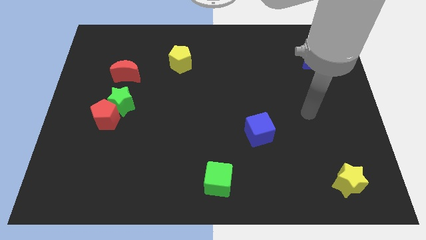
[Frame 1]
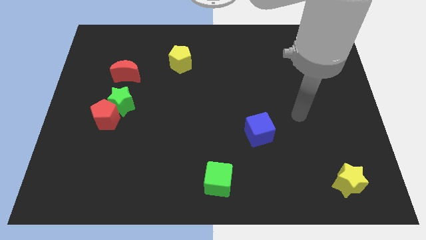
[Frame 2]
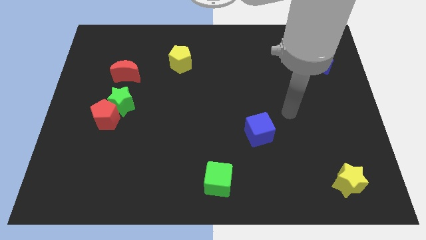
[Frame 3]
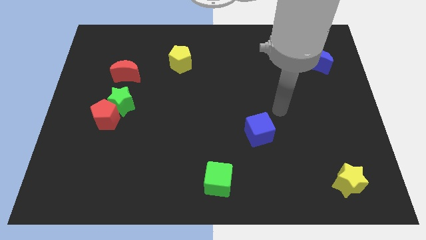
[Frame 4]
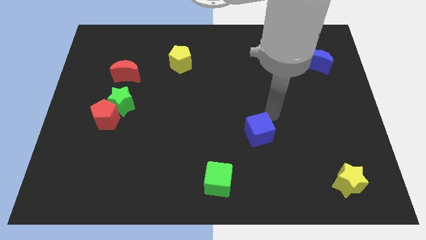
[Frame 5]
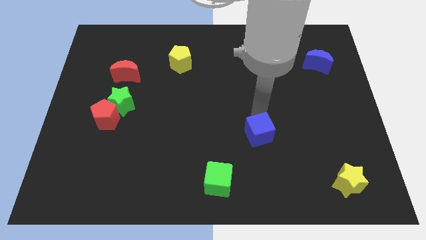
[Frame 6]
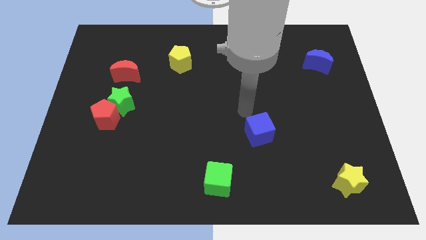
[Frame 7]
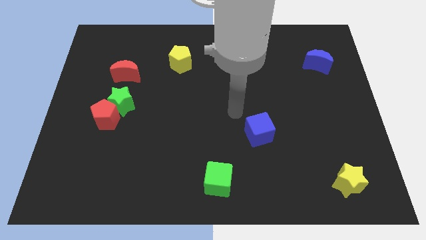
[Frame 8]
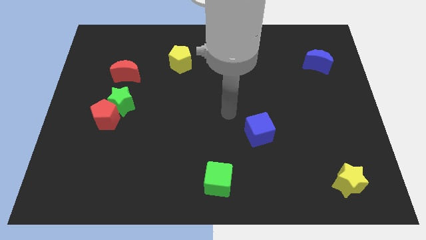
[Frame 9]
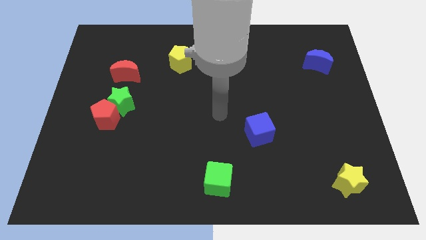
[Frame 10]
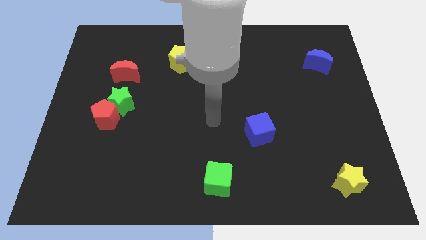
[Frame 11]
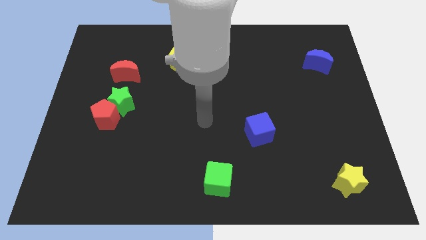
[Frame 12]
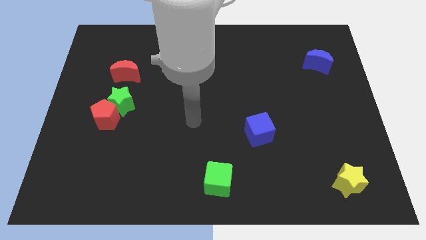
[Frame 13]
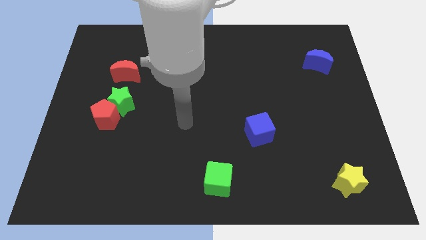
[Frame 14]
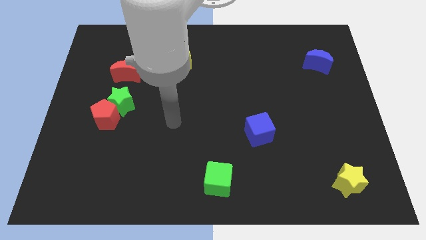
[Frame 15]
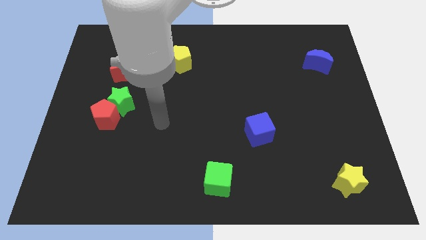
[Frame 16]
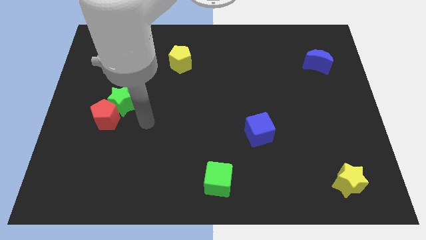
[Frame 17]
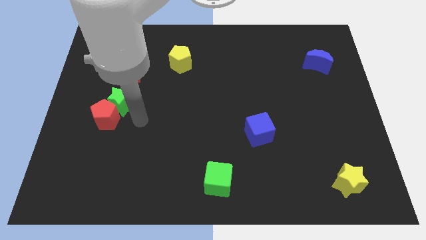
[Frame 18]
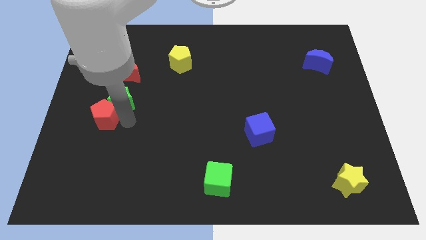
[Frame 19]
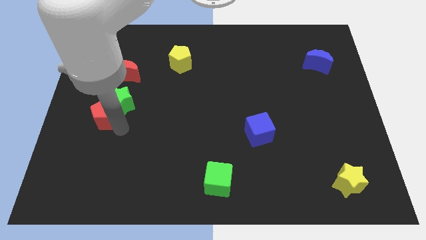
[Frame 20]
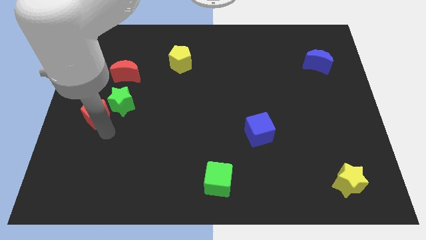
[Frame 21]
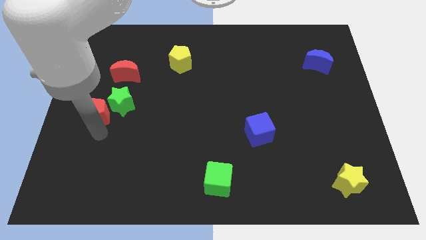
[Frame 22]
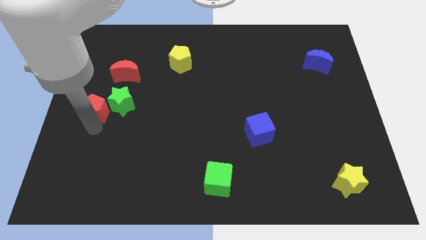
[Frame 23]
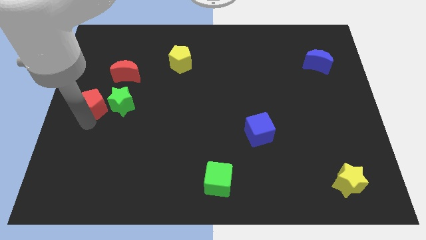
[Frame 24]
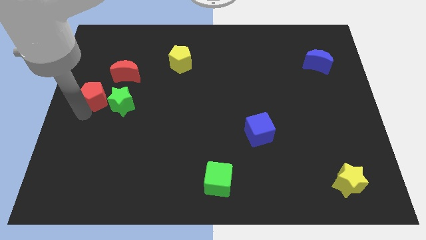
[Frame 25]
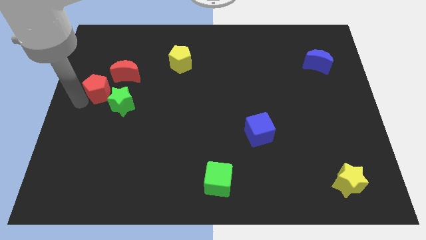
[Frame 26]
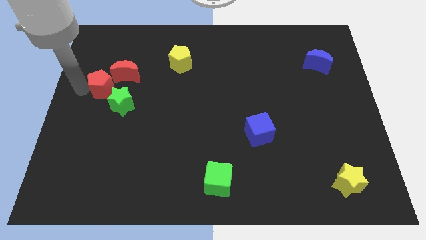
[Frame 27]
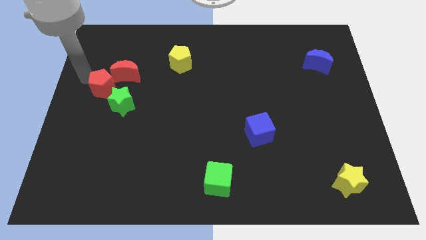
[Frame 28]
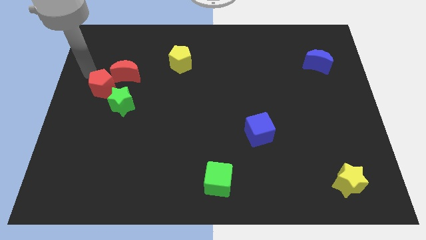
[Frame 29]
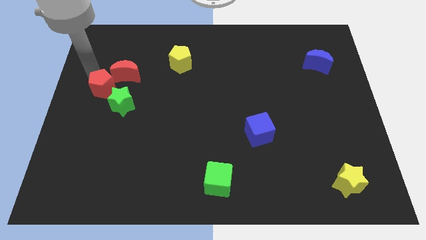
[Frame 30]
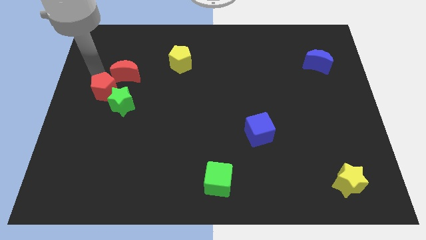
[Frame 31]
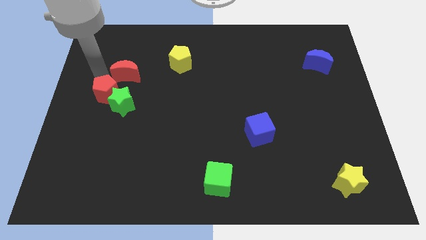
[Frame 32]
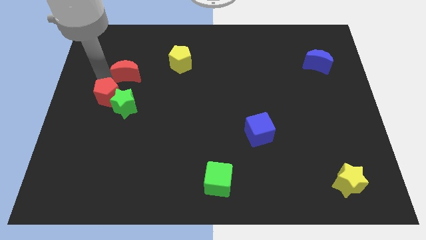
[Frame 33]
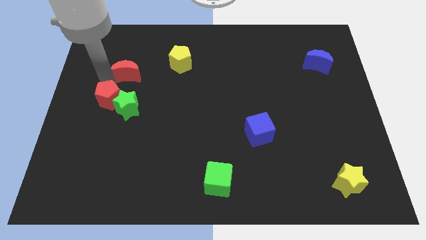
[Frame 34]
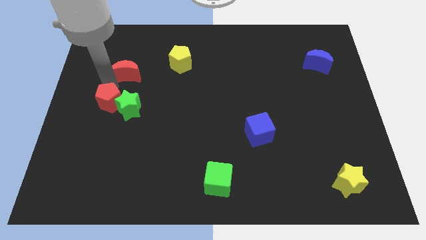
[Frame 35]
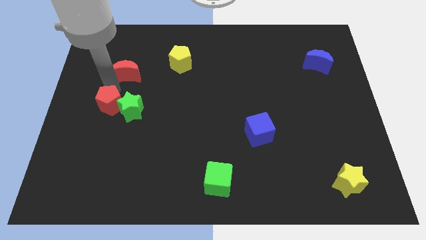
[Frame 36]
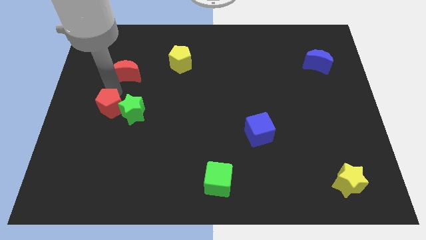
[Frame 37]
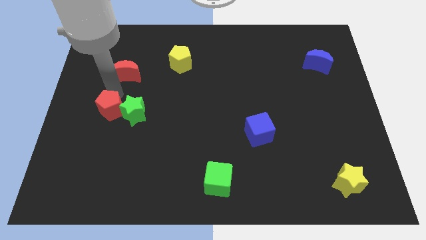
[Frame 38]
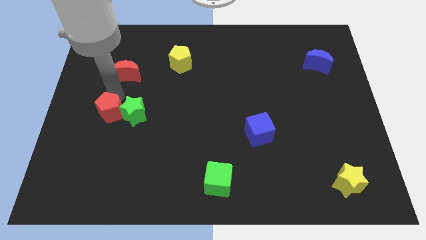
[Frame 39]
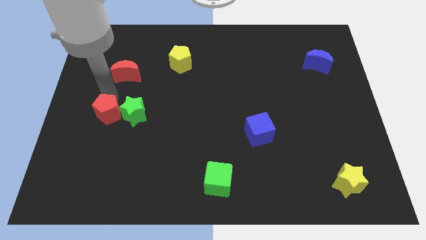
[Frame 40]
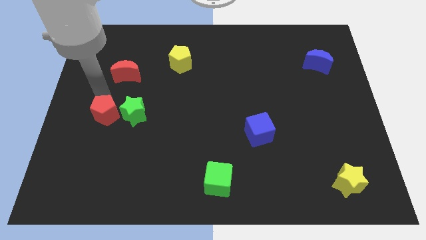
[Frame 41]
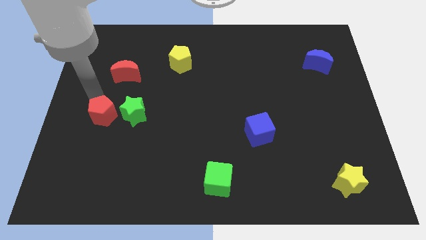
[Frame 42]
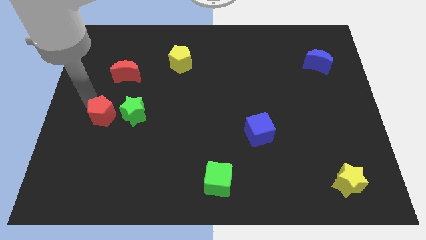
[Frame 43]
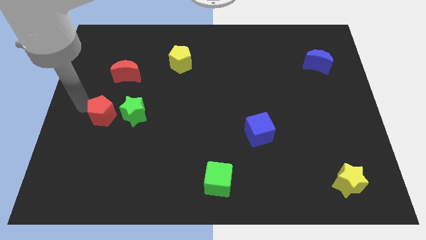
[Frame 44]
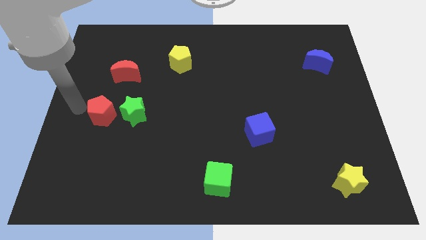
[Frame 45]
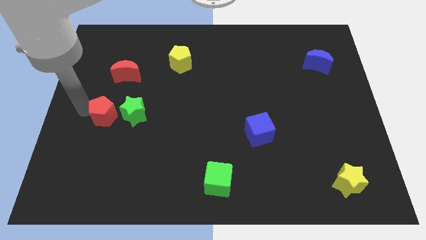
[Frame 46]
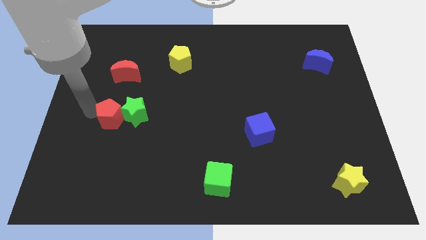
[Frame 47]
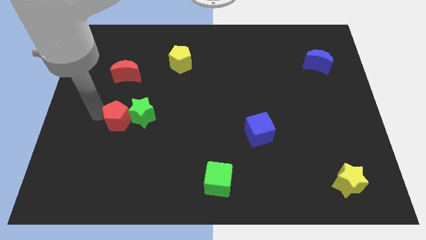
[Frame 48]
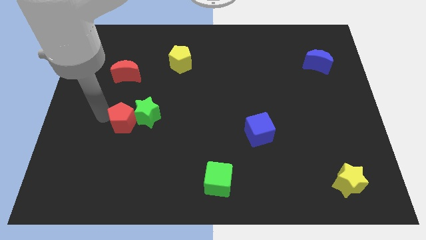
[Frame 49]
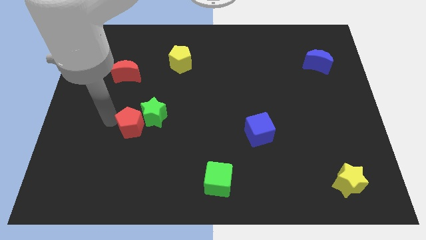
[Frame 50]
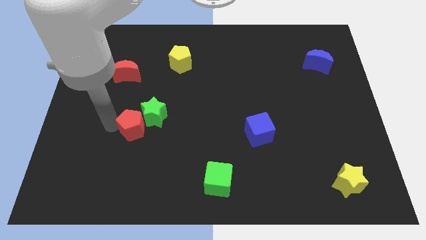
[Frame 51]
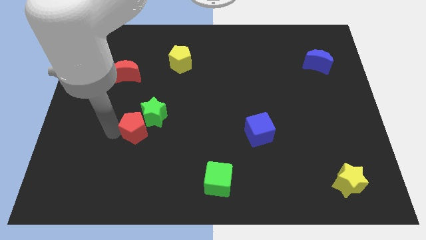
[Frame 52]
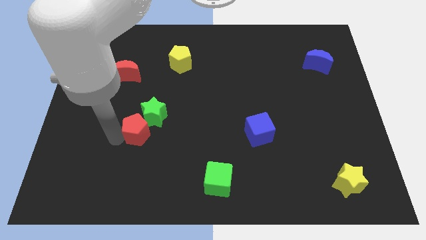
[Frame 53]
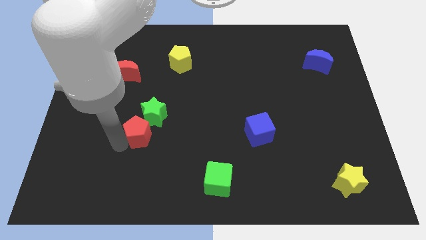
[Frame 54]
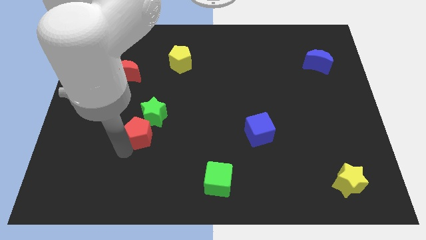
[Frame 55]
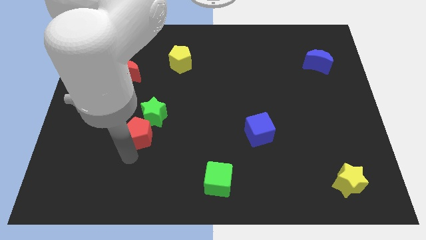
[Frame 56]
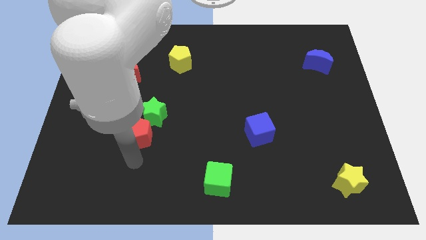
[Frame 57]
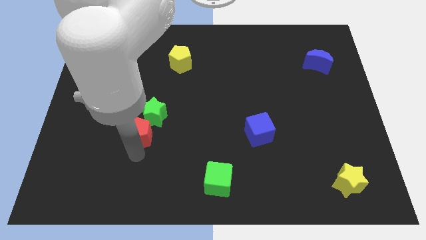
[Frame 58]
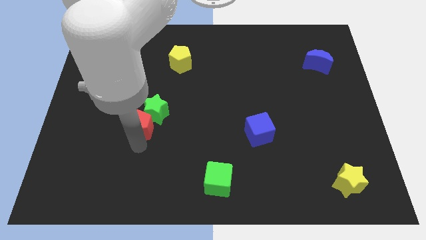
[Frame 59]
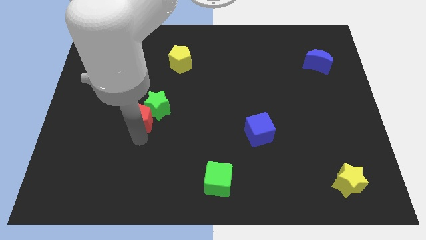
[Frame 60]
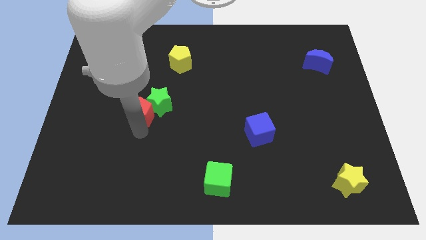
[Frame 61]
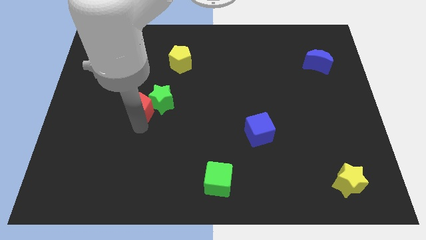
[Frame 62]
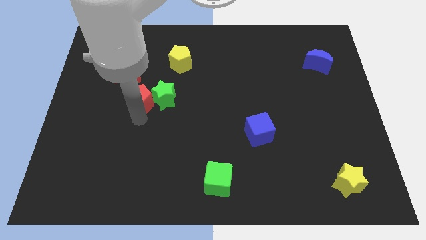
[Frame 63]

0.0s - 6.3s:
push the red pentagon somewhat up and then to the right

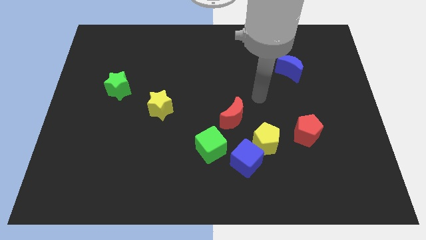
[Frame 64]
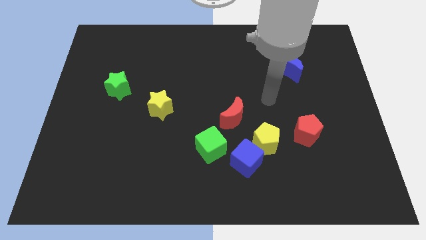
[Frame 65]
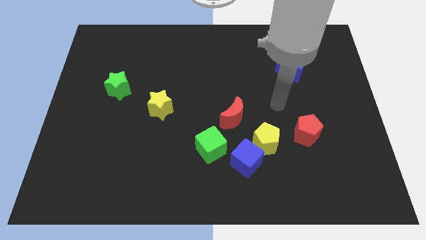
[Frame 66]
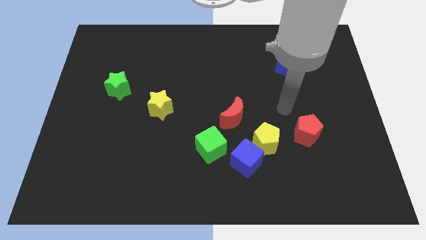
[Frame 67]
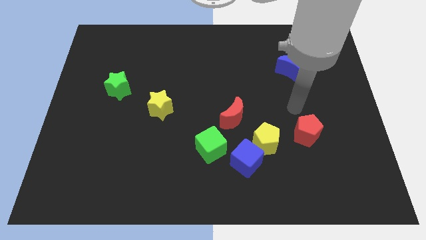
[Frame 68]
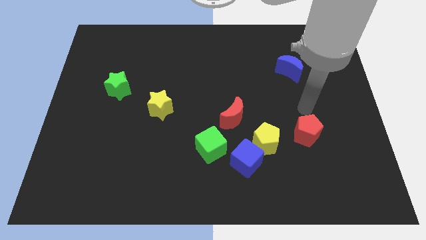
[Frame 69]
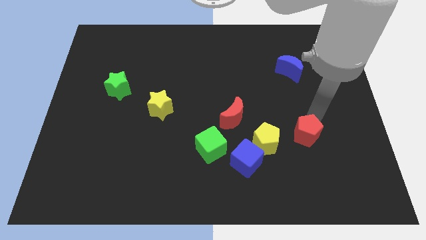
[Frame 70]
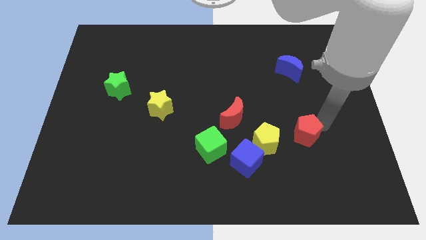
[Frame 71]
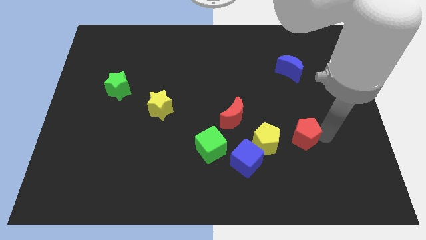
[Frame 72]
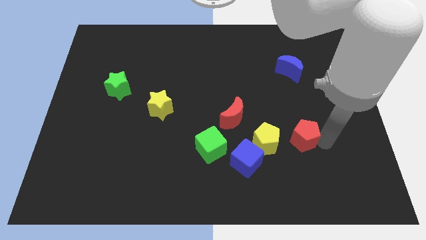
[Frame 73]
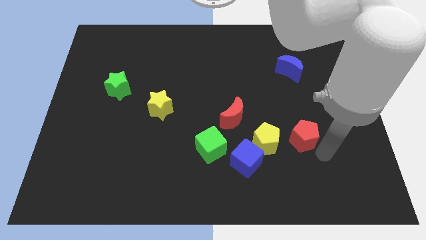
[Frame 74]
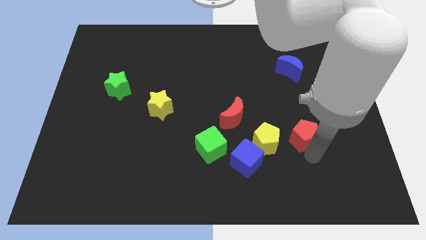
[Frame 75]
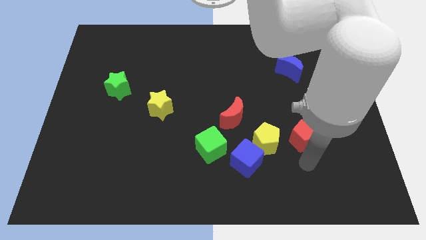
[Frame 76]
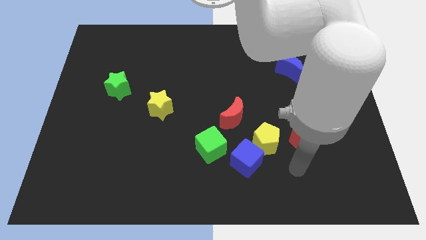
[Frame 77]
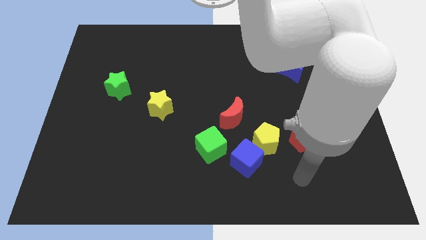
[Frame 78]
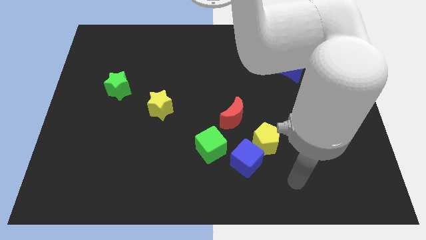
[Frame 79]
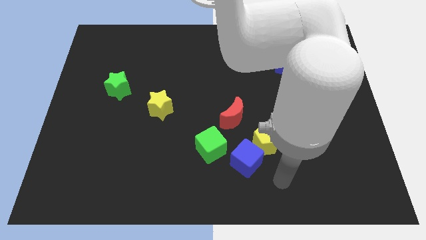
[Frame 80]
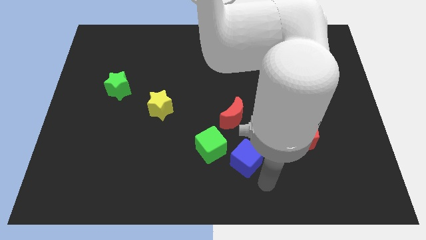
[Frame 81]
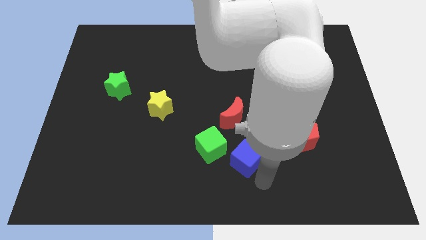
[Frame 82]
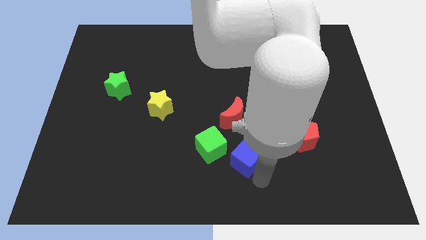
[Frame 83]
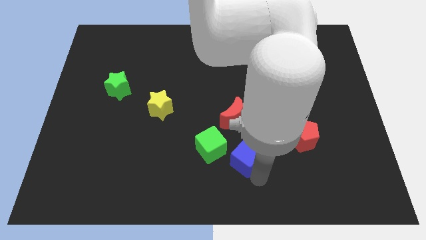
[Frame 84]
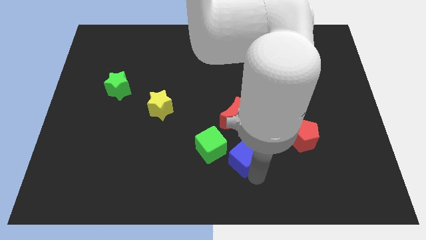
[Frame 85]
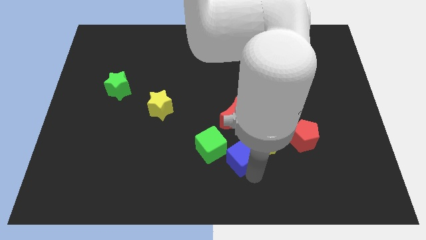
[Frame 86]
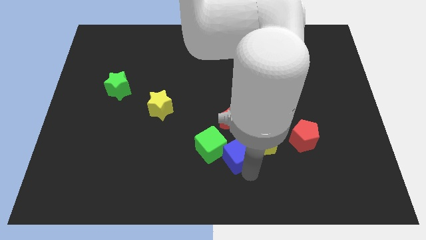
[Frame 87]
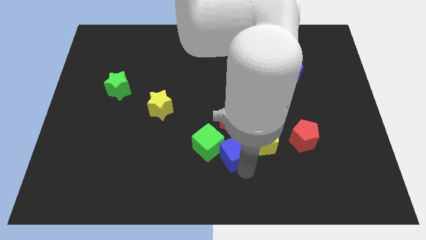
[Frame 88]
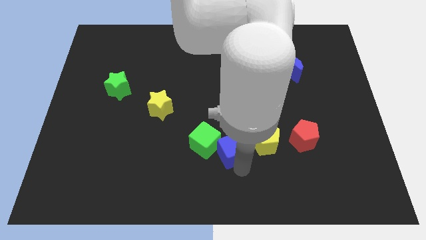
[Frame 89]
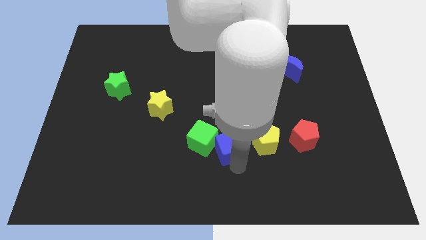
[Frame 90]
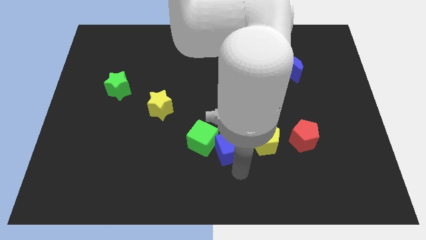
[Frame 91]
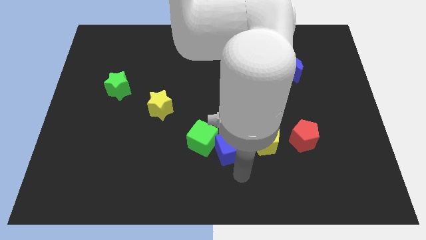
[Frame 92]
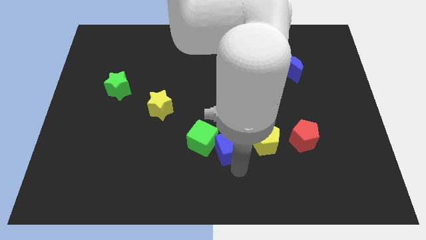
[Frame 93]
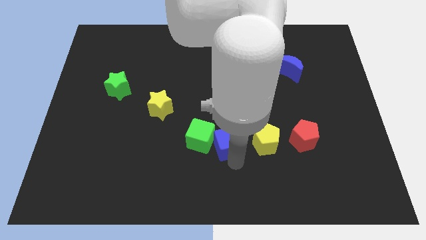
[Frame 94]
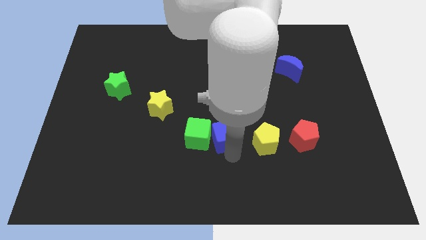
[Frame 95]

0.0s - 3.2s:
move the blue cube somewhat upwards and left diagonally
